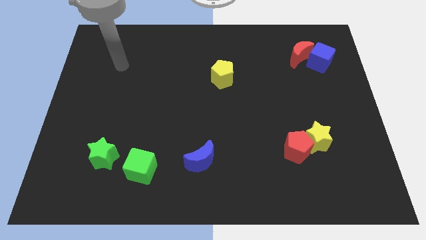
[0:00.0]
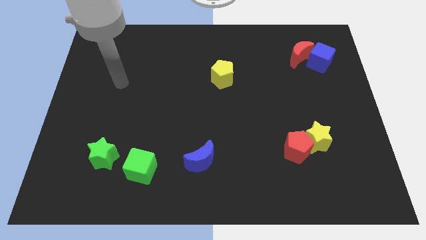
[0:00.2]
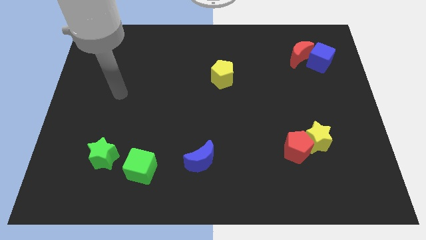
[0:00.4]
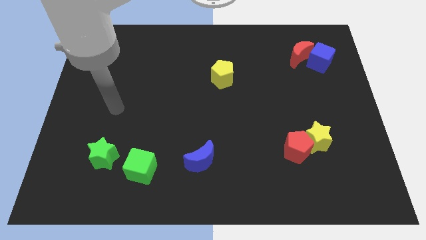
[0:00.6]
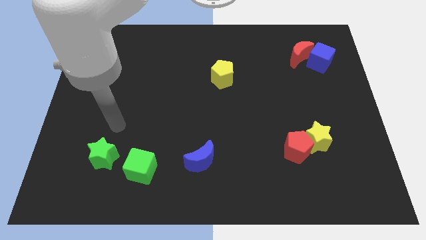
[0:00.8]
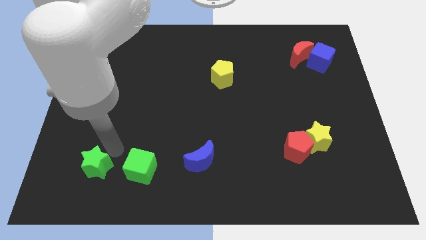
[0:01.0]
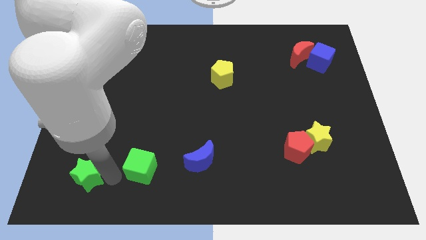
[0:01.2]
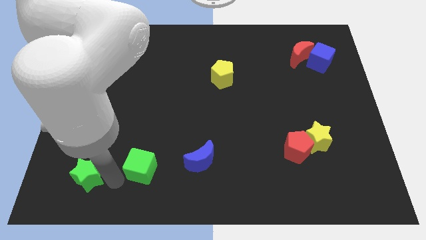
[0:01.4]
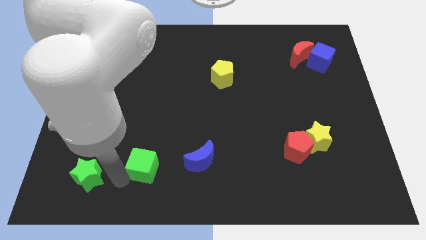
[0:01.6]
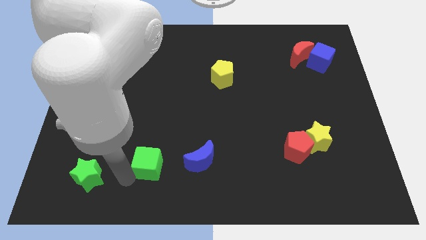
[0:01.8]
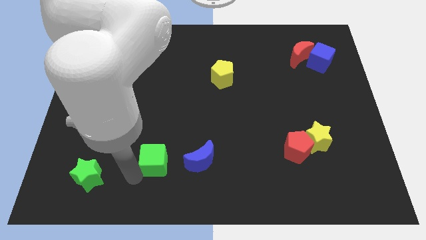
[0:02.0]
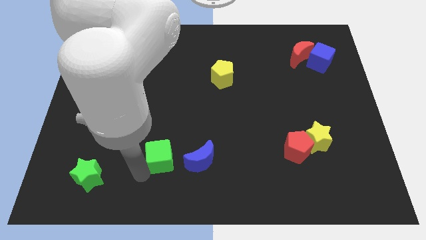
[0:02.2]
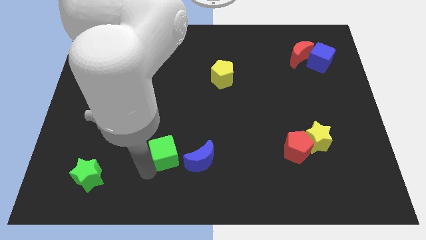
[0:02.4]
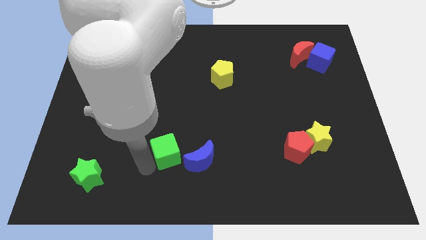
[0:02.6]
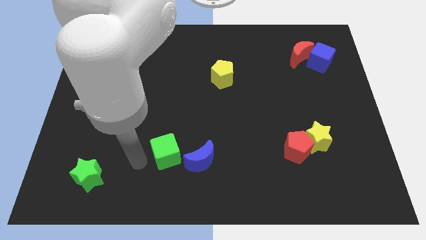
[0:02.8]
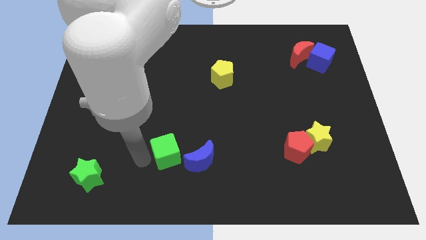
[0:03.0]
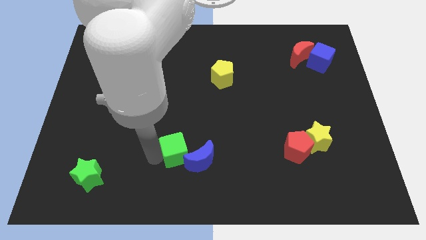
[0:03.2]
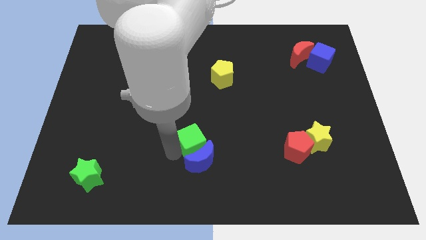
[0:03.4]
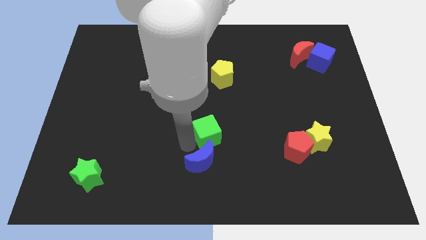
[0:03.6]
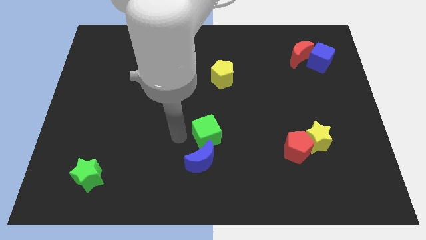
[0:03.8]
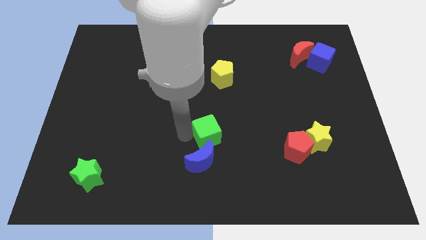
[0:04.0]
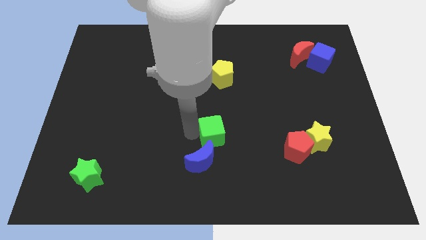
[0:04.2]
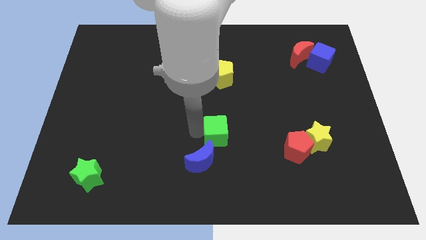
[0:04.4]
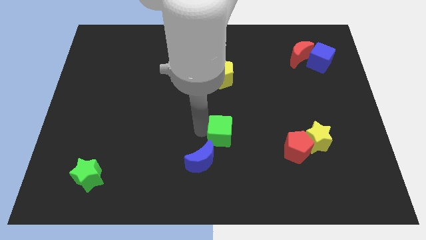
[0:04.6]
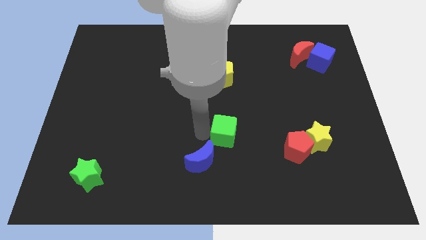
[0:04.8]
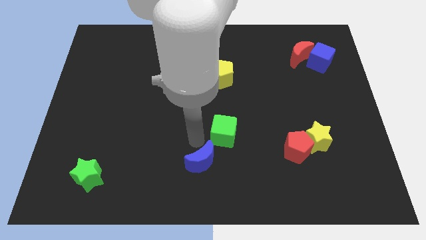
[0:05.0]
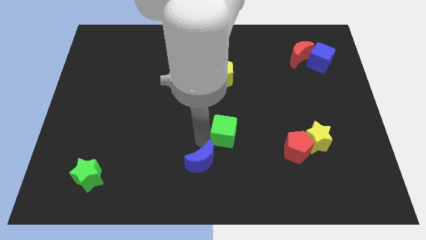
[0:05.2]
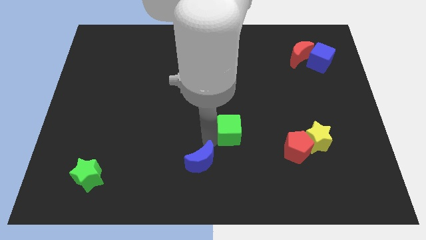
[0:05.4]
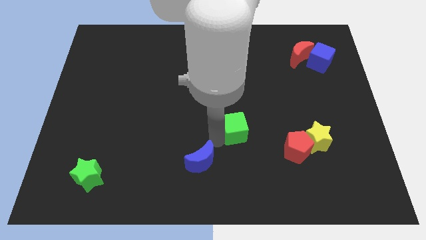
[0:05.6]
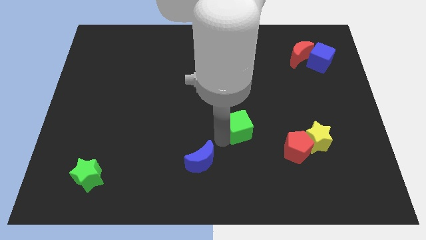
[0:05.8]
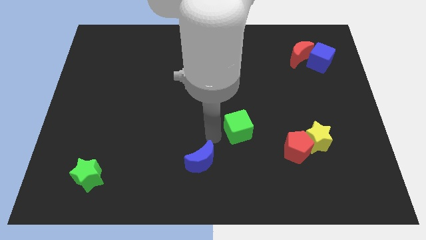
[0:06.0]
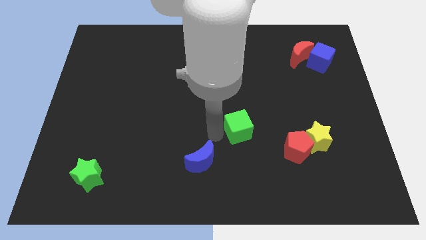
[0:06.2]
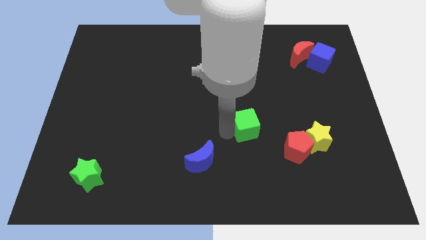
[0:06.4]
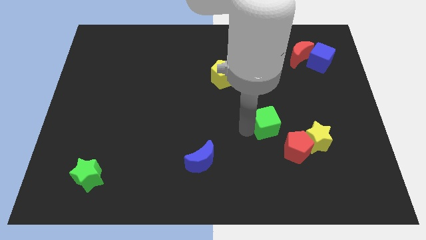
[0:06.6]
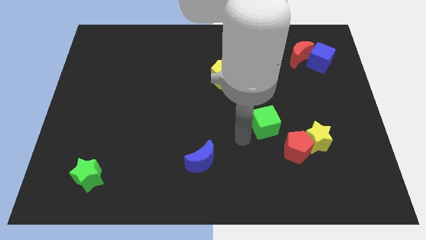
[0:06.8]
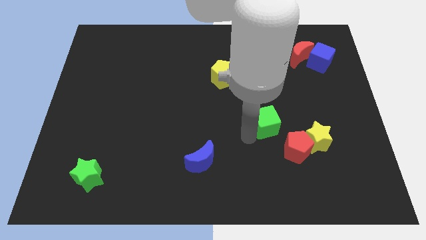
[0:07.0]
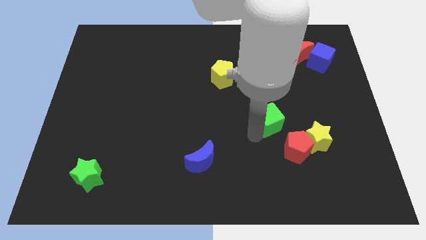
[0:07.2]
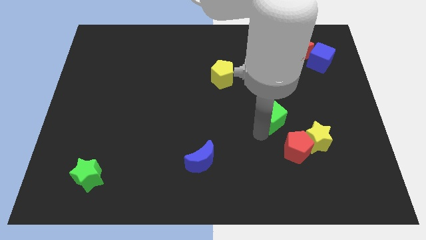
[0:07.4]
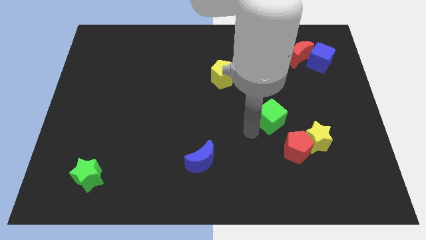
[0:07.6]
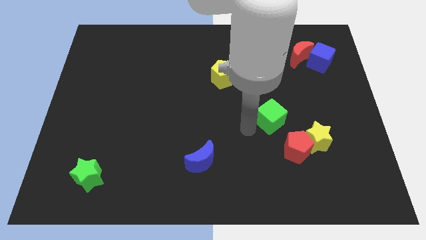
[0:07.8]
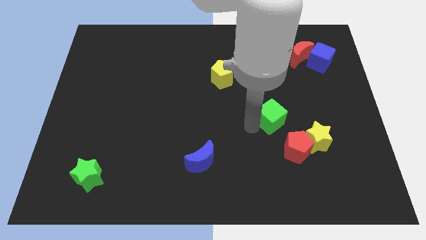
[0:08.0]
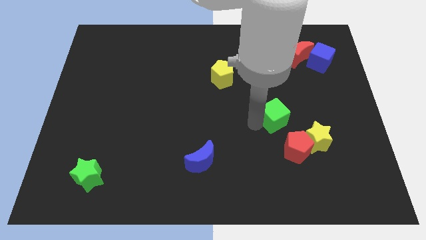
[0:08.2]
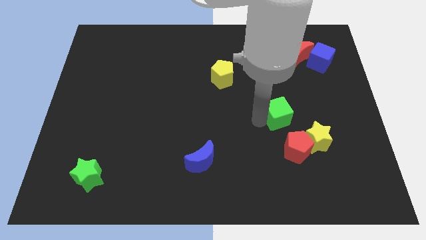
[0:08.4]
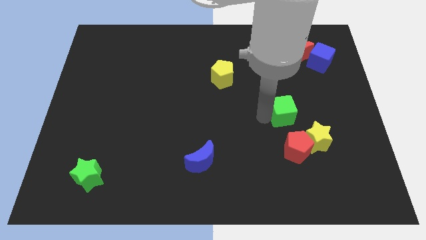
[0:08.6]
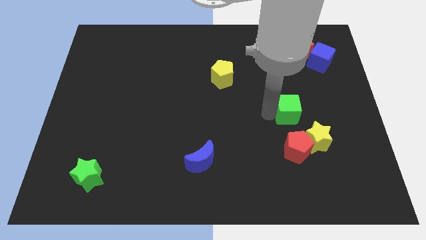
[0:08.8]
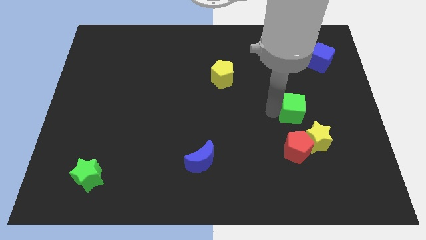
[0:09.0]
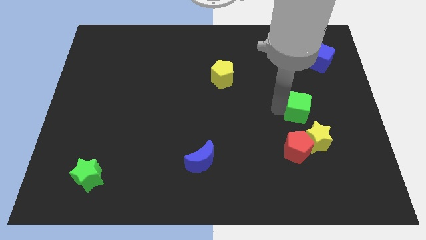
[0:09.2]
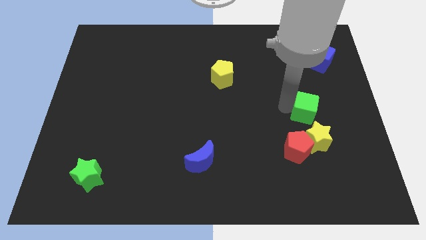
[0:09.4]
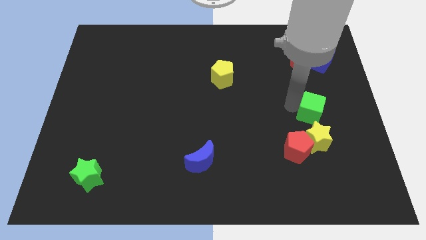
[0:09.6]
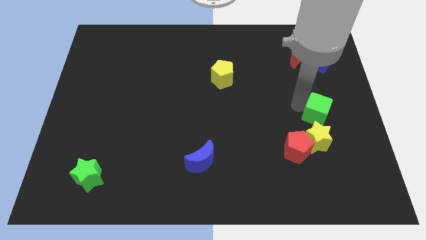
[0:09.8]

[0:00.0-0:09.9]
push the green cube to the top right of the yellow star

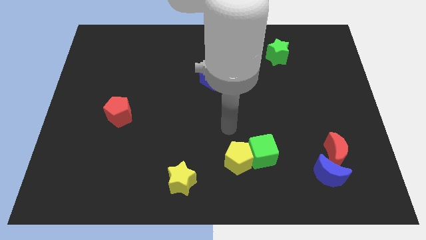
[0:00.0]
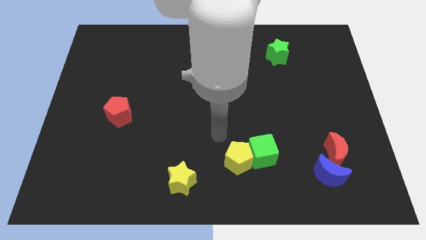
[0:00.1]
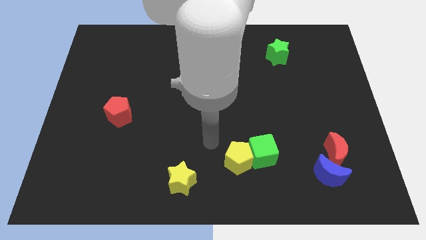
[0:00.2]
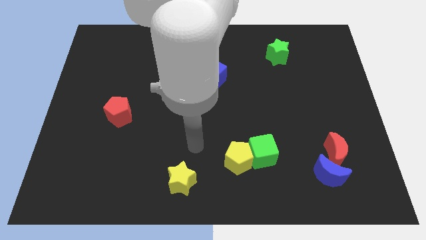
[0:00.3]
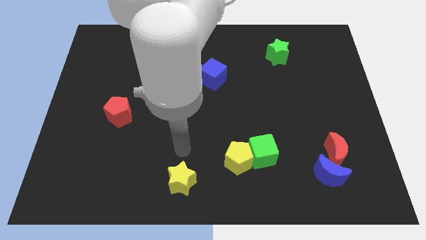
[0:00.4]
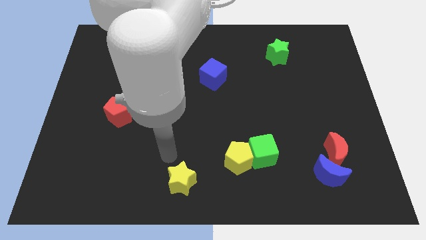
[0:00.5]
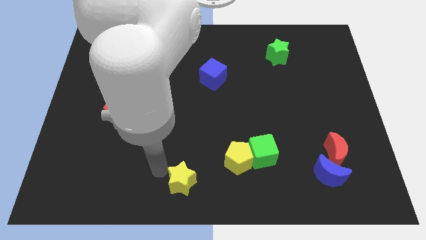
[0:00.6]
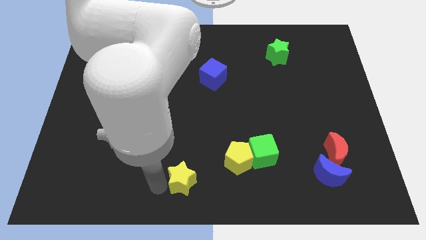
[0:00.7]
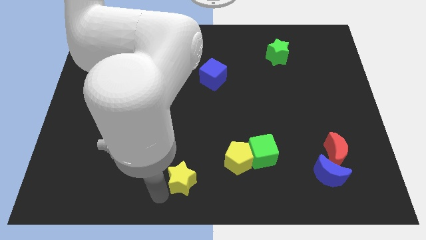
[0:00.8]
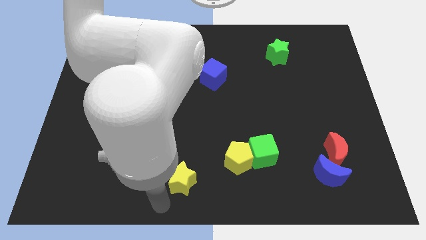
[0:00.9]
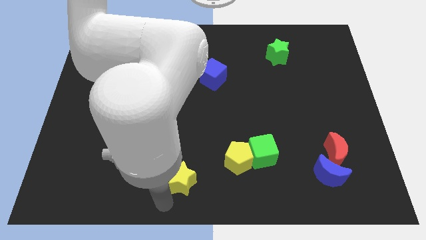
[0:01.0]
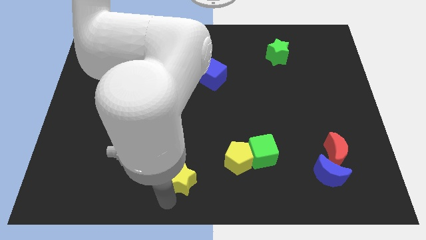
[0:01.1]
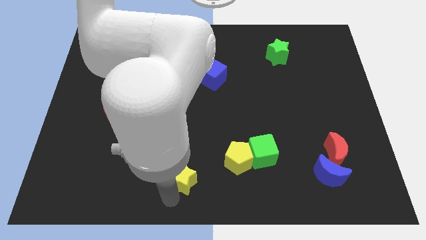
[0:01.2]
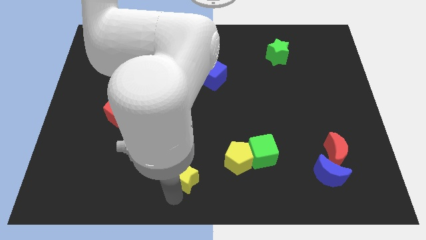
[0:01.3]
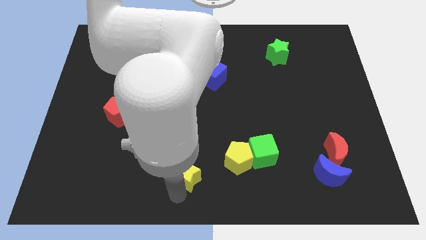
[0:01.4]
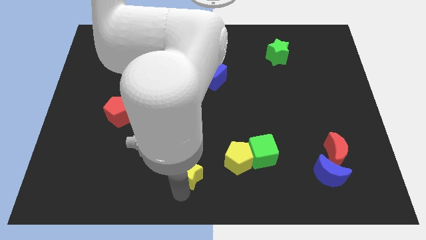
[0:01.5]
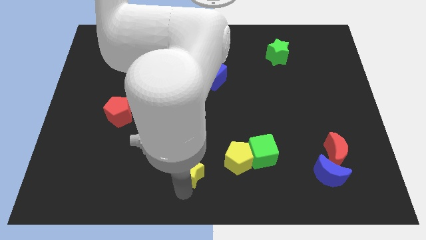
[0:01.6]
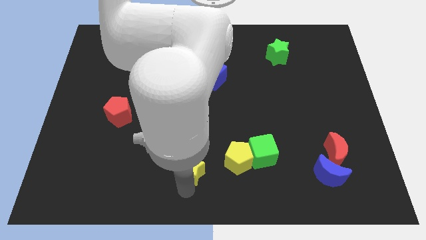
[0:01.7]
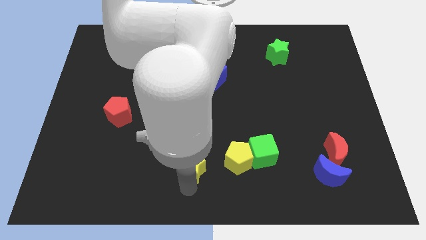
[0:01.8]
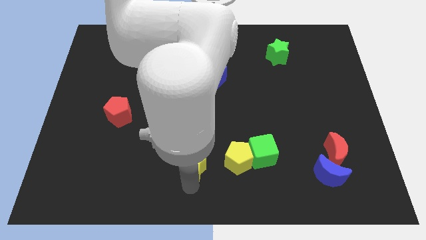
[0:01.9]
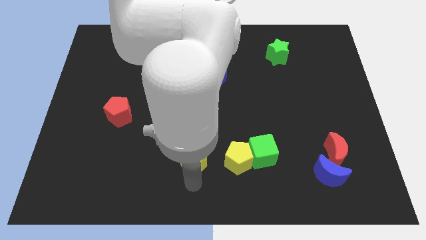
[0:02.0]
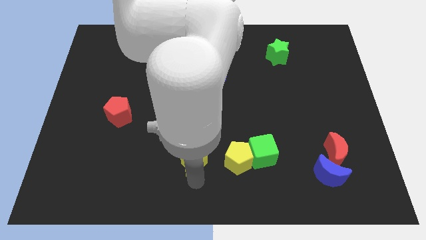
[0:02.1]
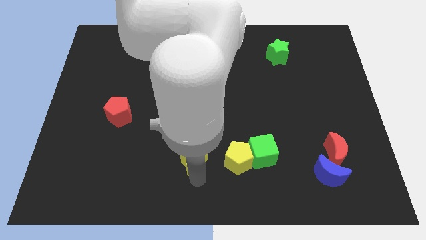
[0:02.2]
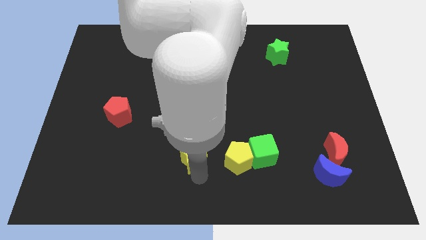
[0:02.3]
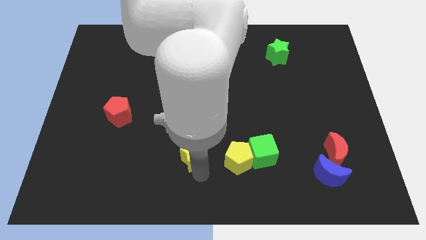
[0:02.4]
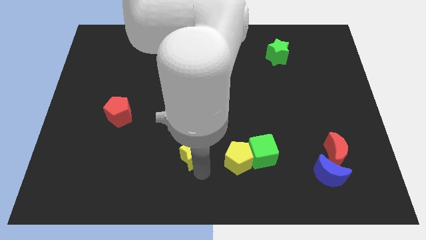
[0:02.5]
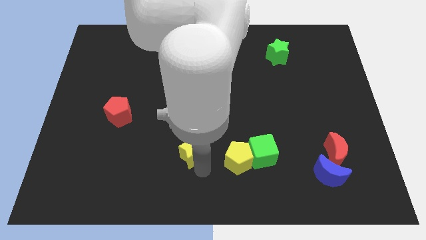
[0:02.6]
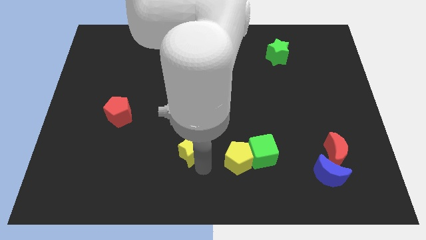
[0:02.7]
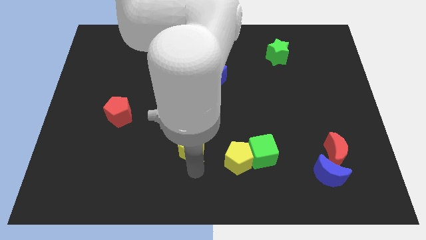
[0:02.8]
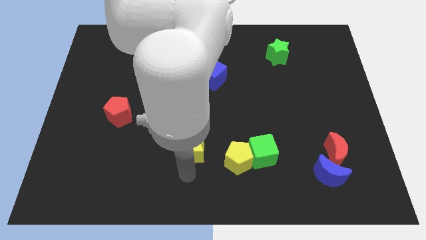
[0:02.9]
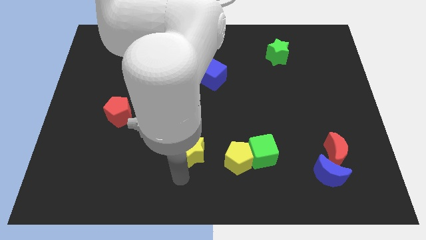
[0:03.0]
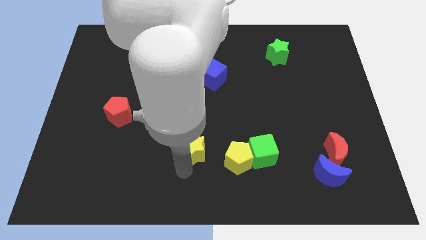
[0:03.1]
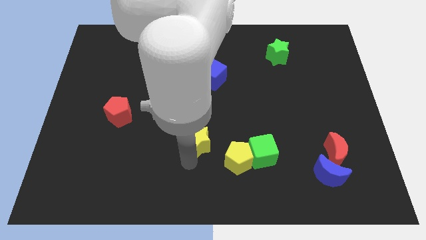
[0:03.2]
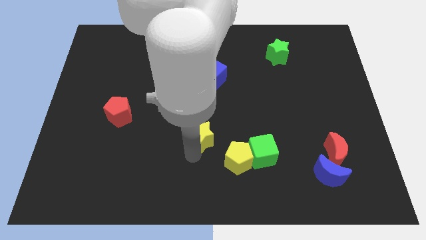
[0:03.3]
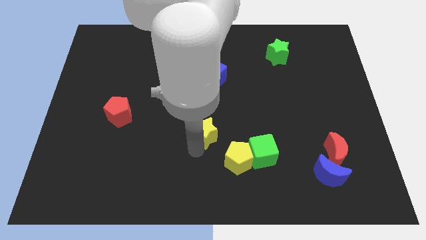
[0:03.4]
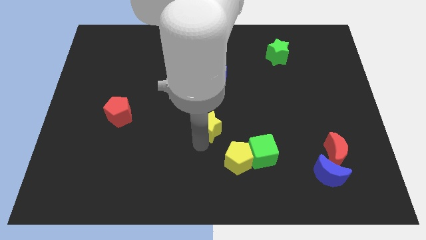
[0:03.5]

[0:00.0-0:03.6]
move the yellow star to the bottom of the blue cube
